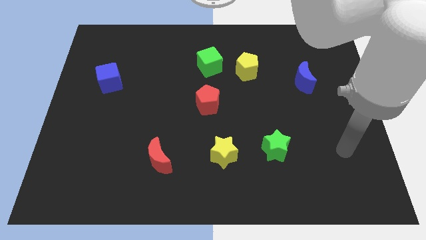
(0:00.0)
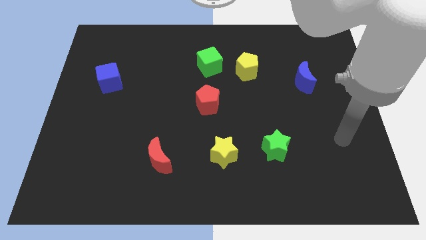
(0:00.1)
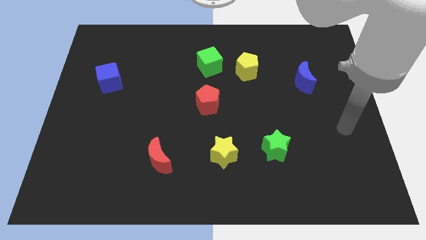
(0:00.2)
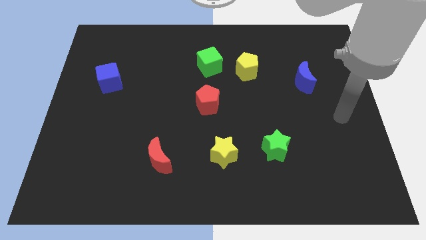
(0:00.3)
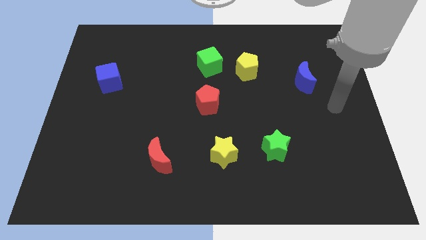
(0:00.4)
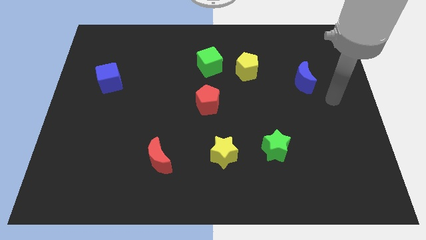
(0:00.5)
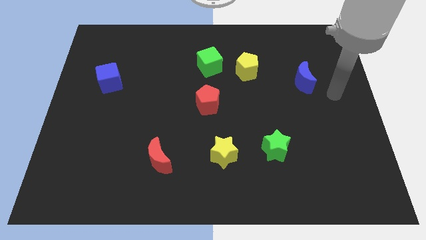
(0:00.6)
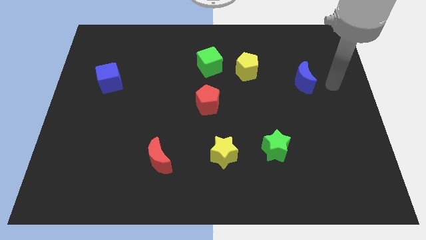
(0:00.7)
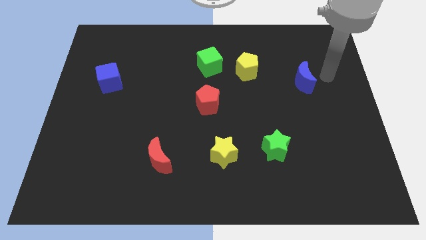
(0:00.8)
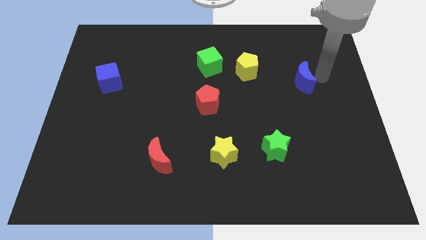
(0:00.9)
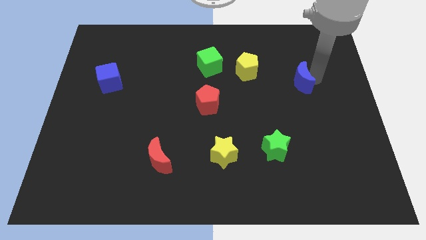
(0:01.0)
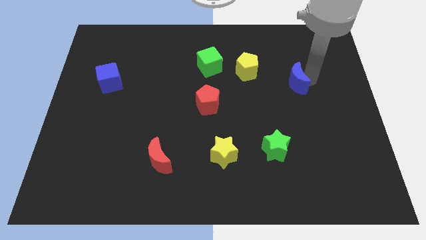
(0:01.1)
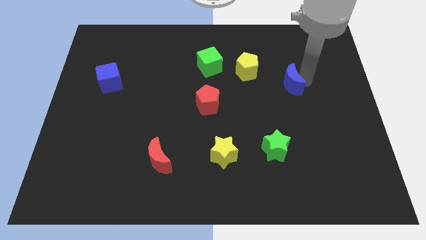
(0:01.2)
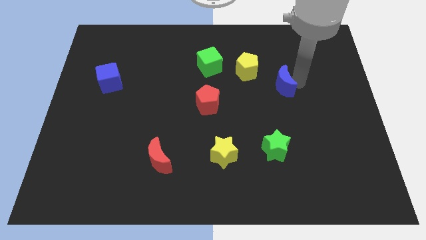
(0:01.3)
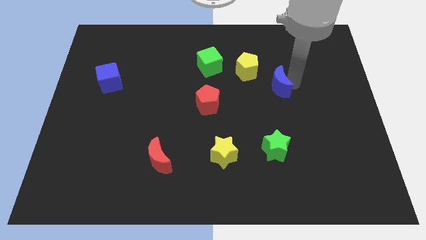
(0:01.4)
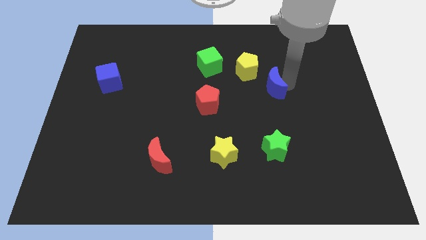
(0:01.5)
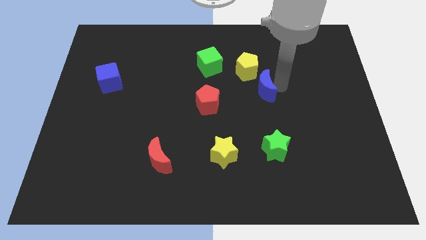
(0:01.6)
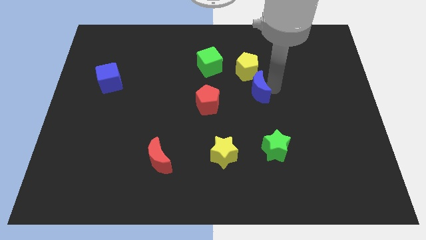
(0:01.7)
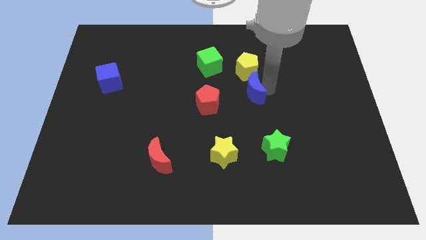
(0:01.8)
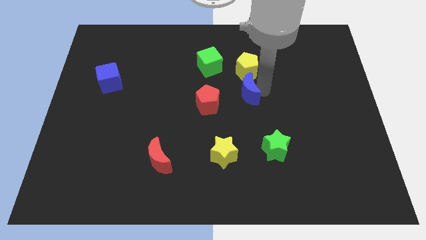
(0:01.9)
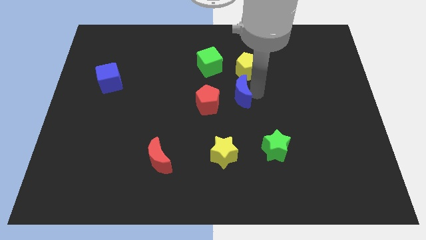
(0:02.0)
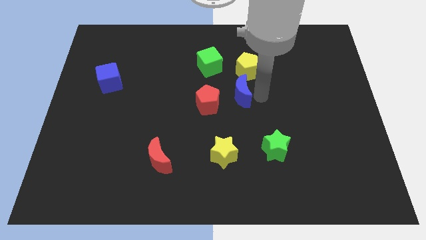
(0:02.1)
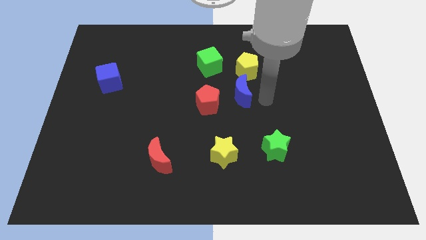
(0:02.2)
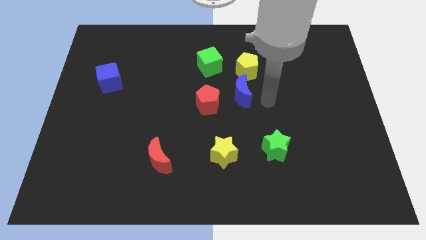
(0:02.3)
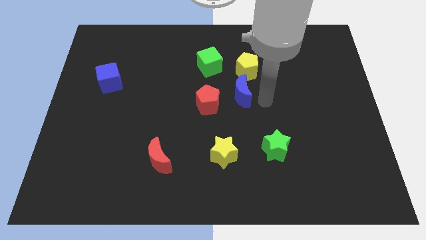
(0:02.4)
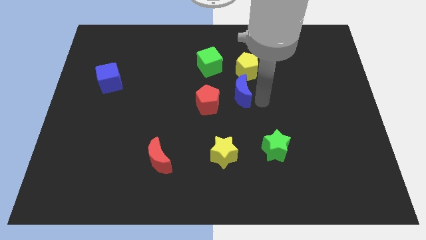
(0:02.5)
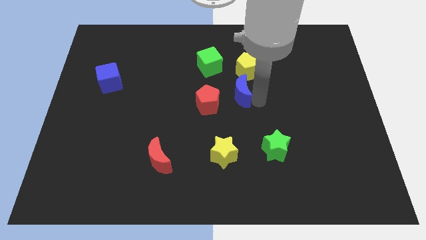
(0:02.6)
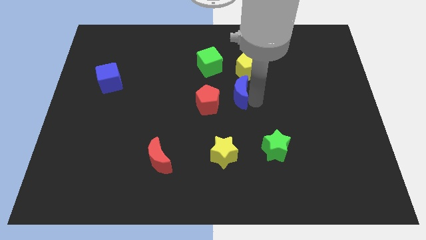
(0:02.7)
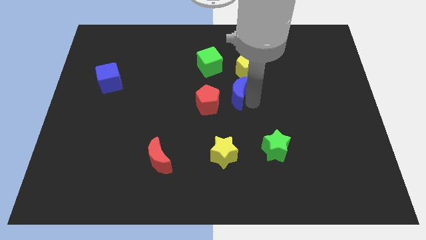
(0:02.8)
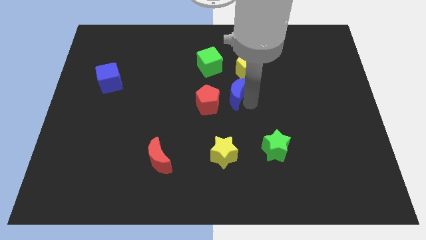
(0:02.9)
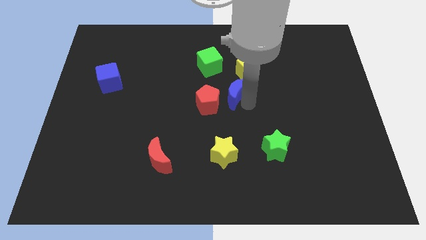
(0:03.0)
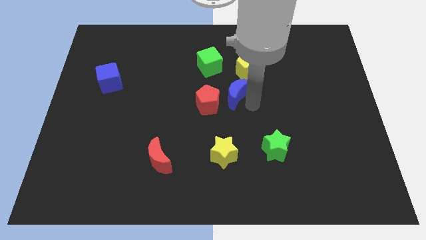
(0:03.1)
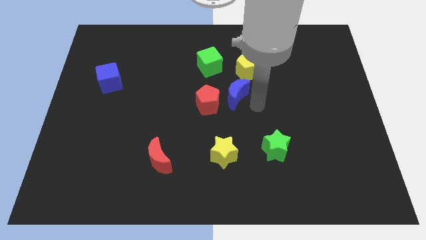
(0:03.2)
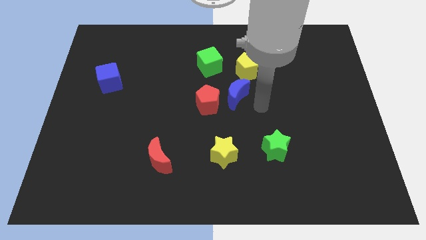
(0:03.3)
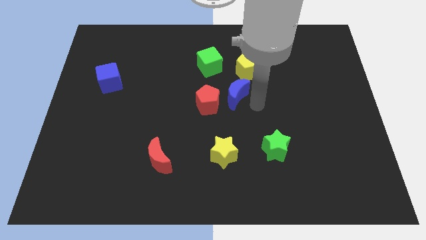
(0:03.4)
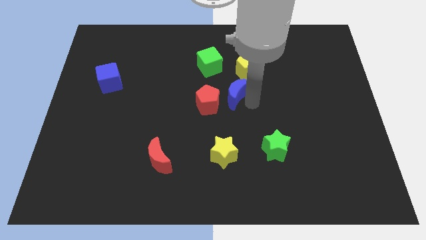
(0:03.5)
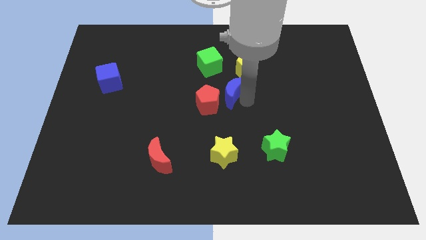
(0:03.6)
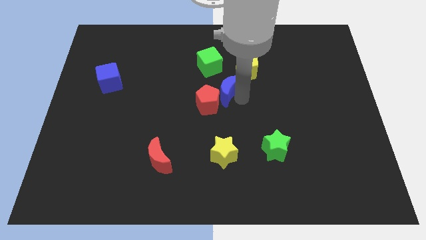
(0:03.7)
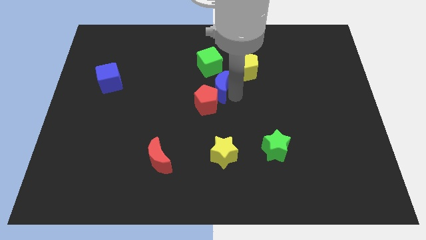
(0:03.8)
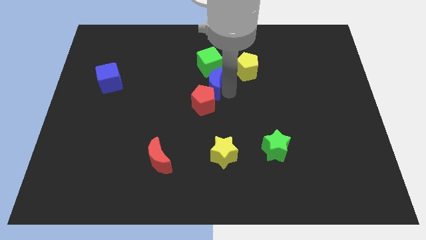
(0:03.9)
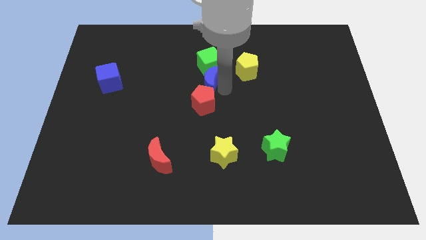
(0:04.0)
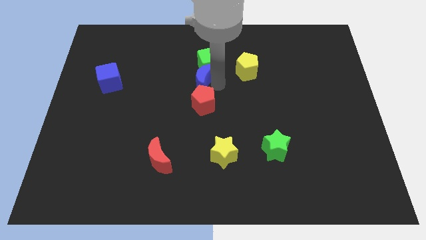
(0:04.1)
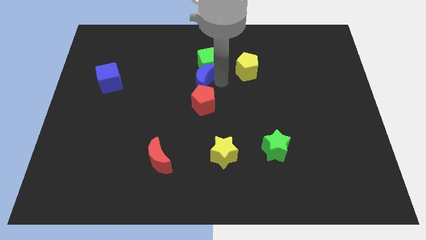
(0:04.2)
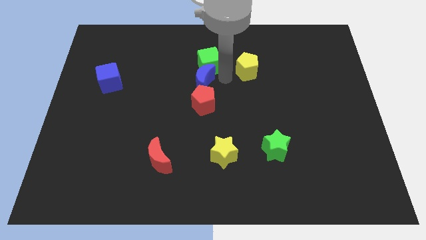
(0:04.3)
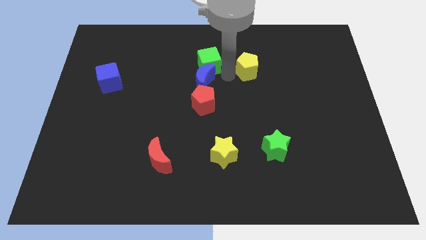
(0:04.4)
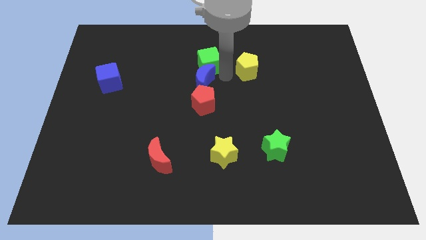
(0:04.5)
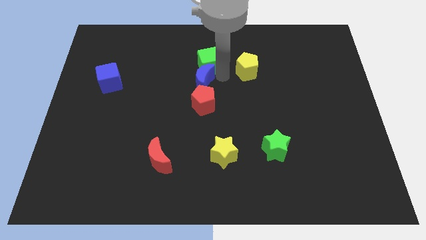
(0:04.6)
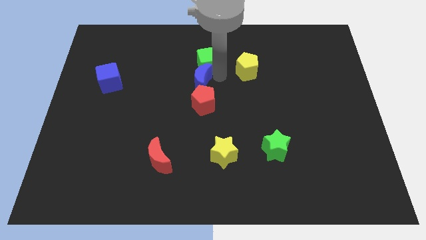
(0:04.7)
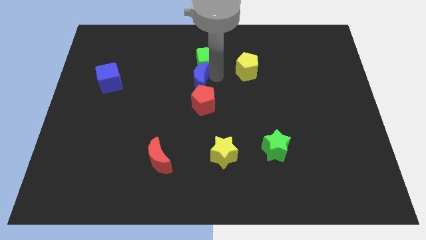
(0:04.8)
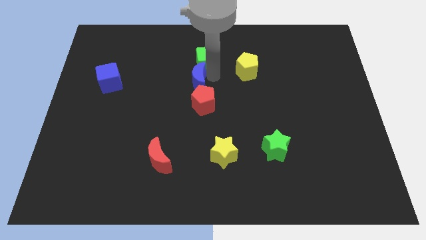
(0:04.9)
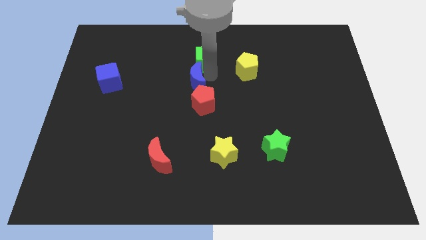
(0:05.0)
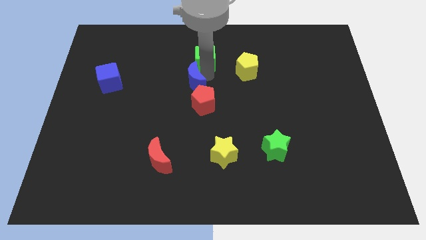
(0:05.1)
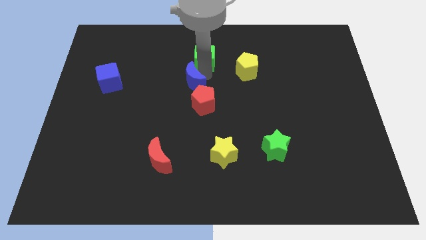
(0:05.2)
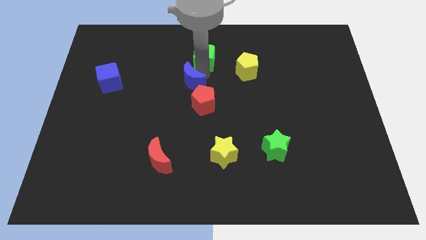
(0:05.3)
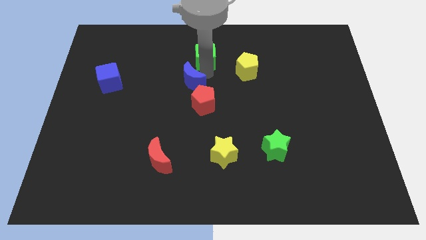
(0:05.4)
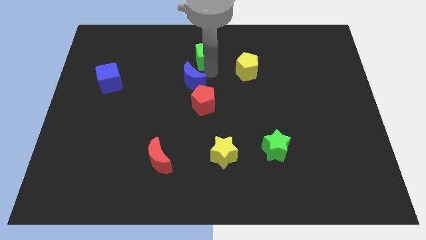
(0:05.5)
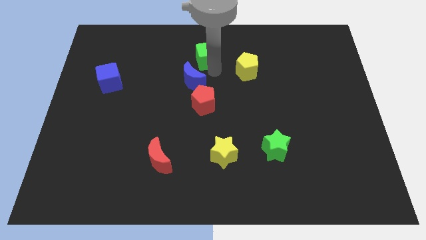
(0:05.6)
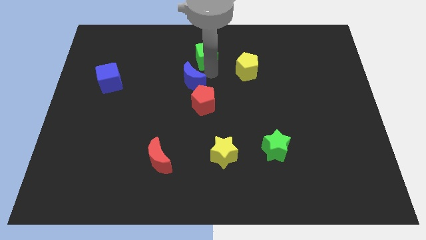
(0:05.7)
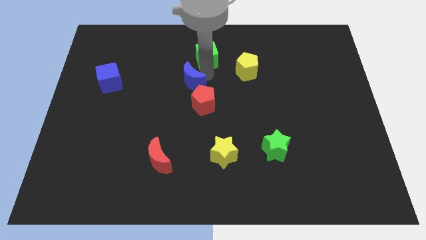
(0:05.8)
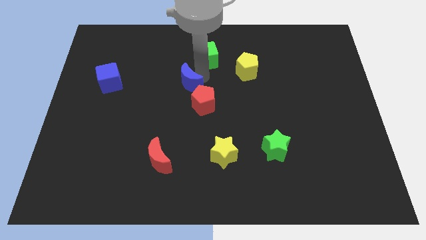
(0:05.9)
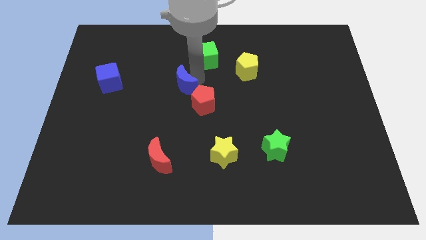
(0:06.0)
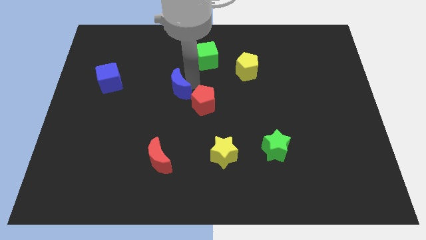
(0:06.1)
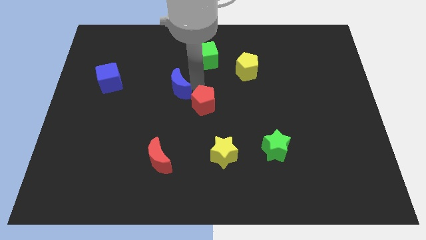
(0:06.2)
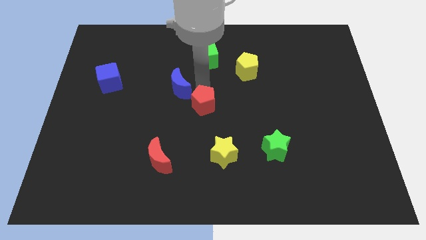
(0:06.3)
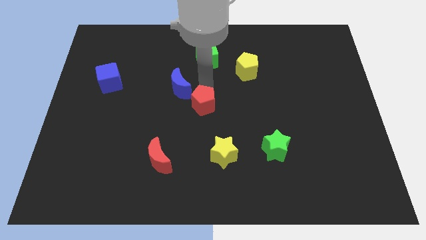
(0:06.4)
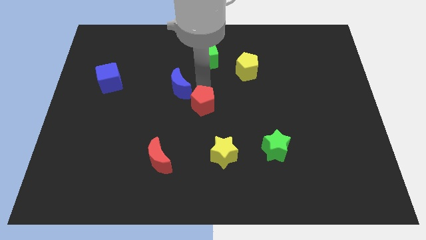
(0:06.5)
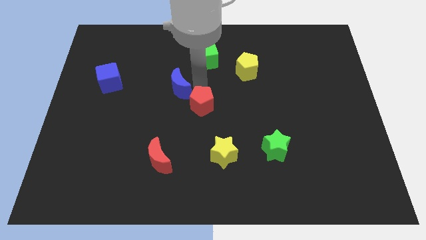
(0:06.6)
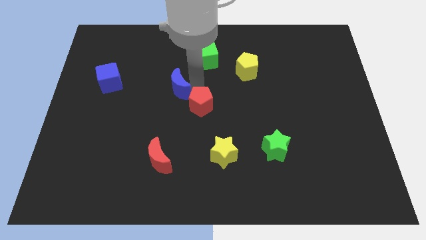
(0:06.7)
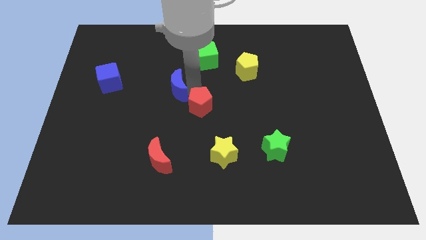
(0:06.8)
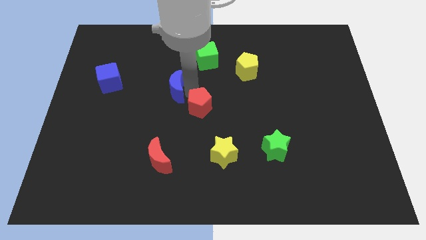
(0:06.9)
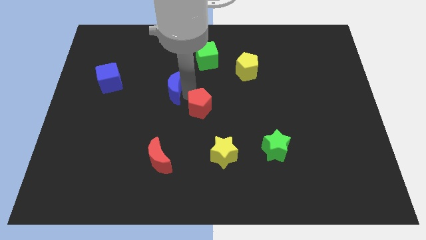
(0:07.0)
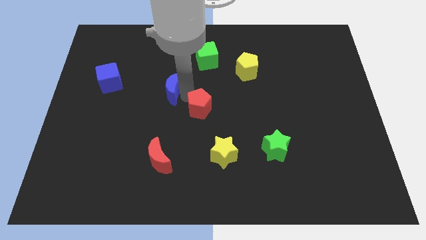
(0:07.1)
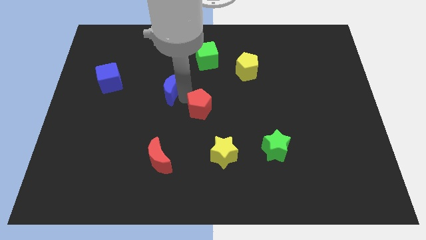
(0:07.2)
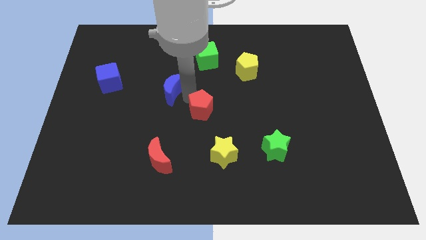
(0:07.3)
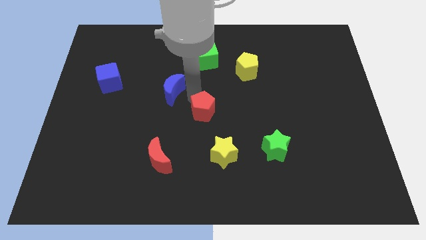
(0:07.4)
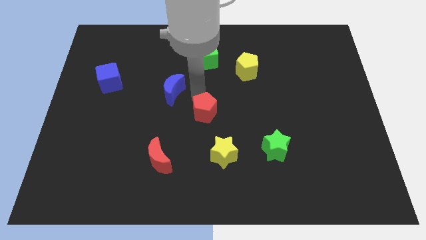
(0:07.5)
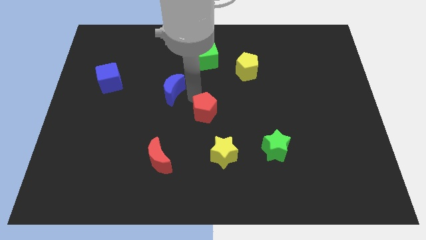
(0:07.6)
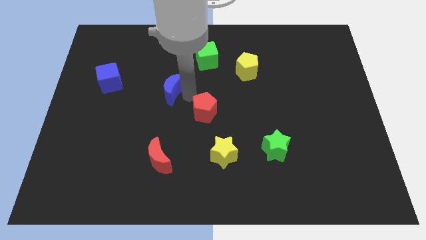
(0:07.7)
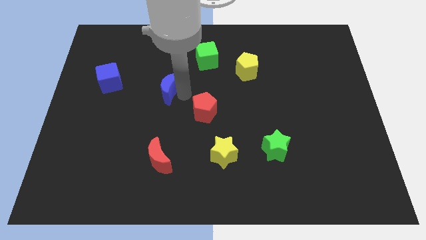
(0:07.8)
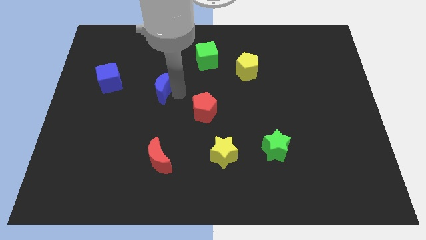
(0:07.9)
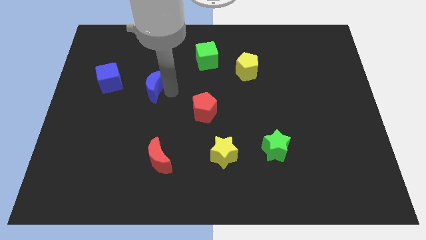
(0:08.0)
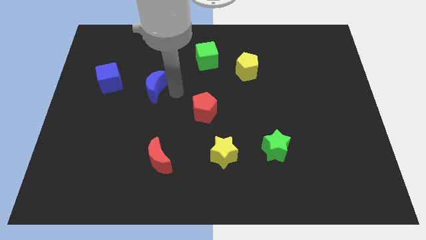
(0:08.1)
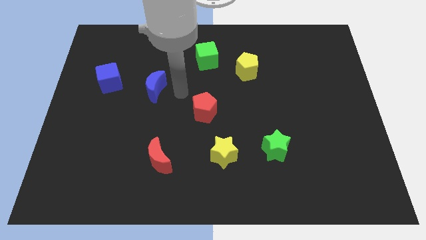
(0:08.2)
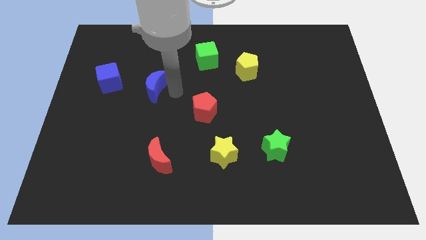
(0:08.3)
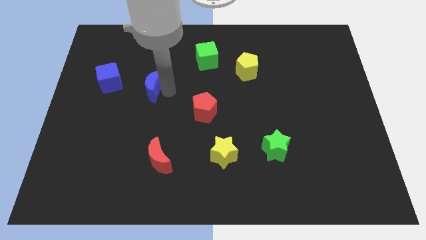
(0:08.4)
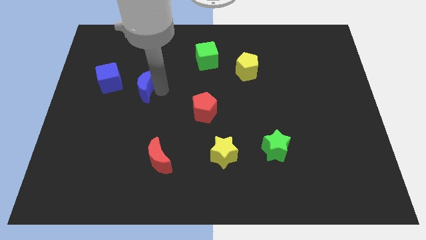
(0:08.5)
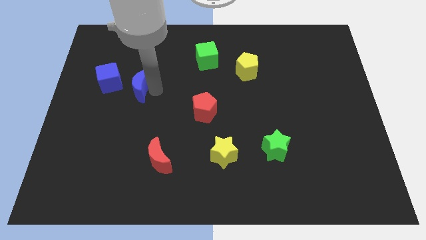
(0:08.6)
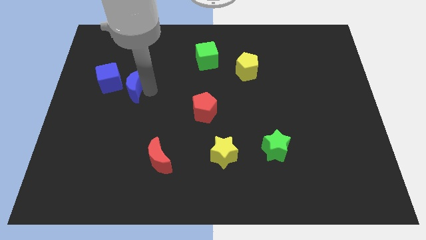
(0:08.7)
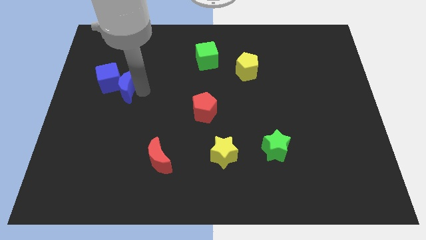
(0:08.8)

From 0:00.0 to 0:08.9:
push the blue moon next to the blue cube
